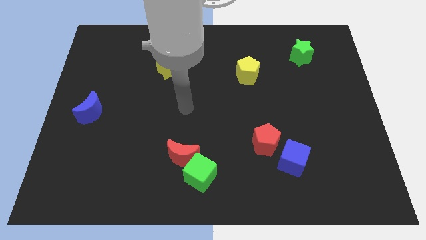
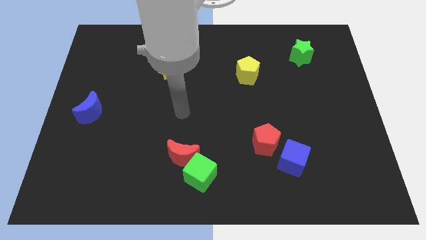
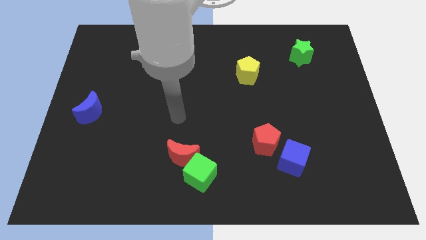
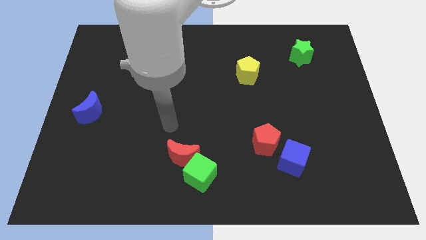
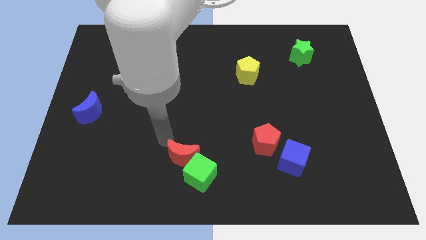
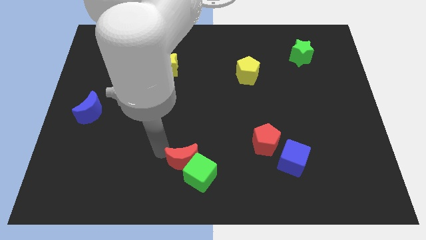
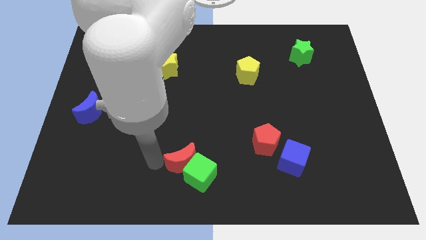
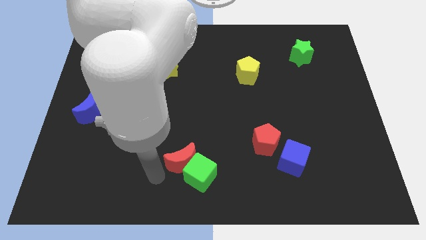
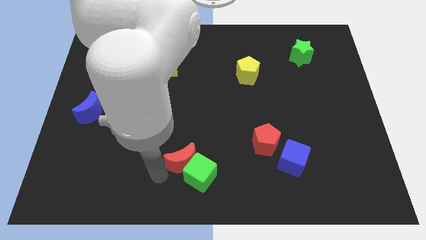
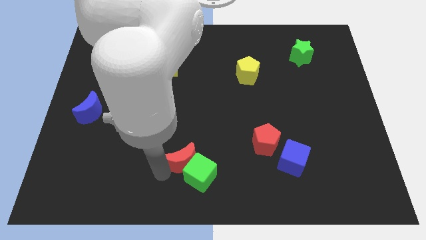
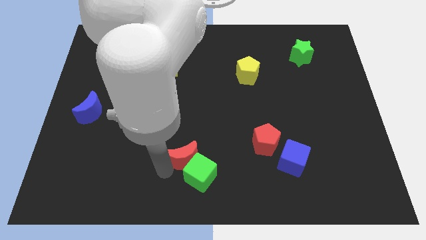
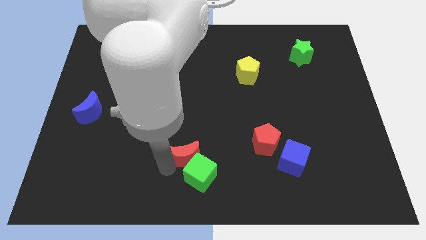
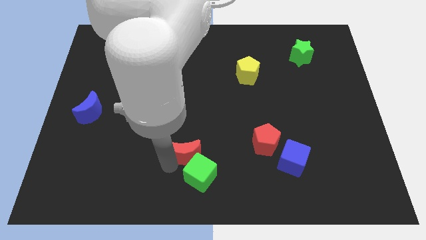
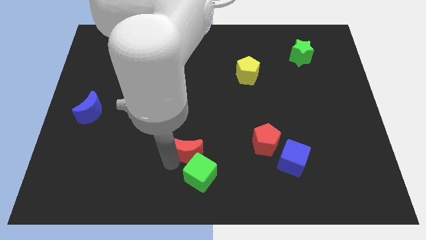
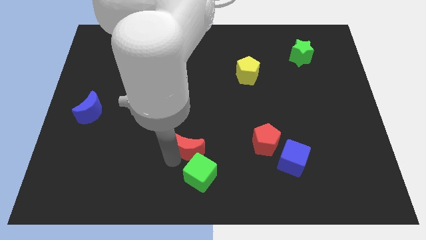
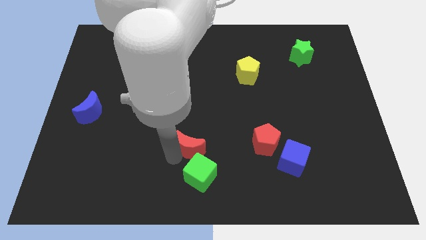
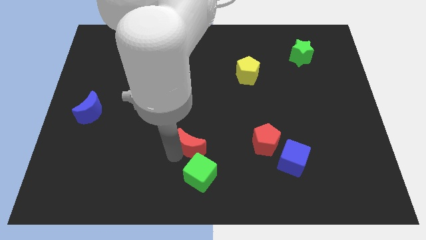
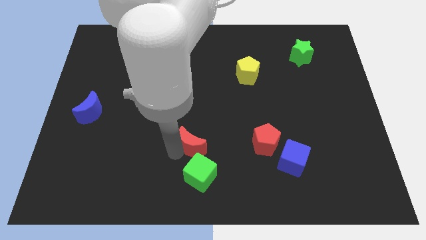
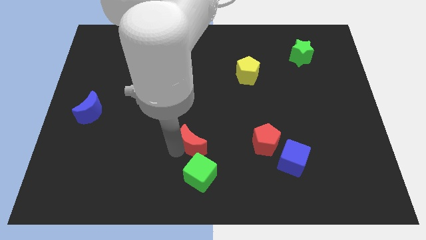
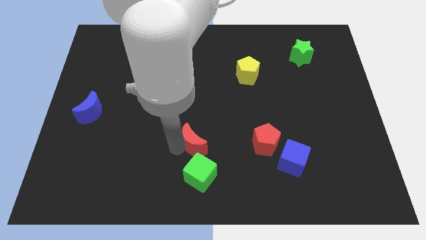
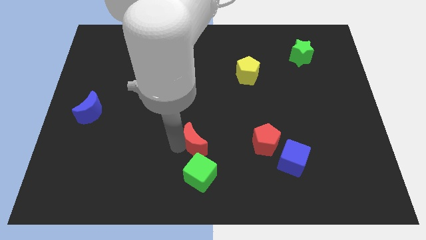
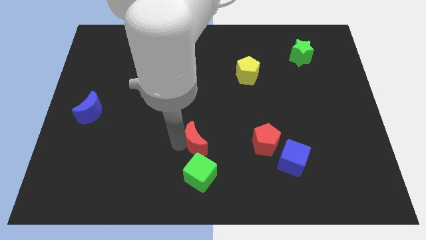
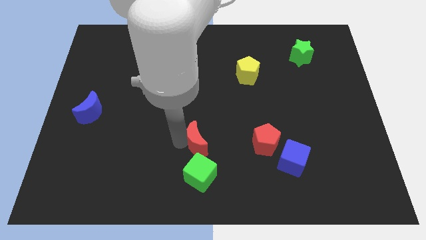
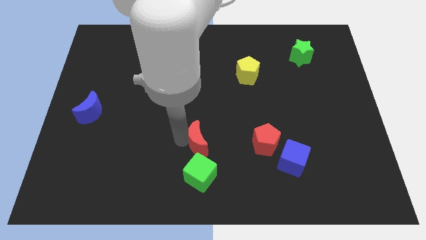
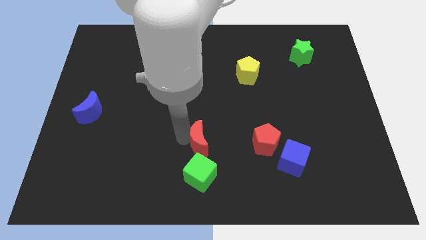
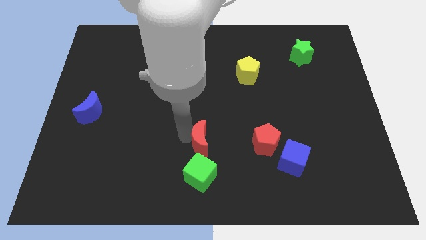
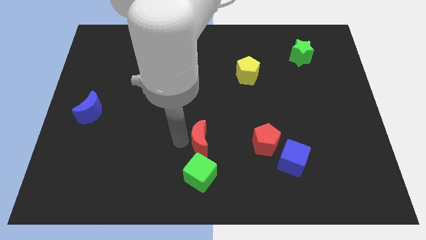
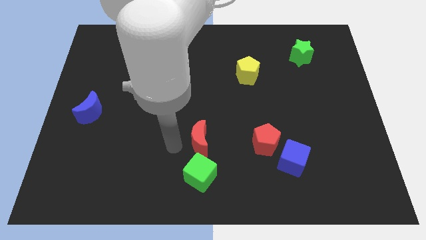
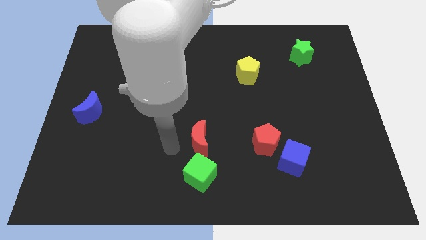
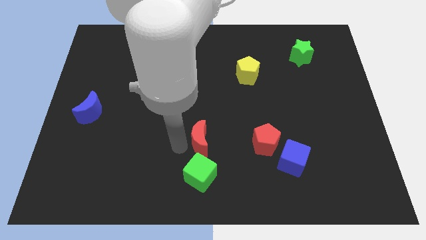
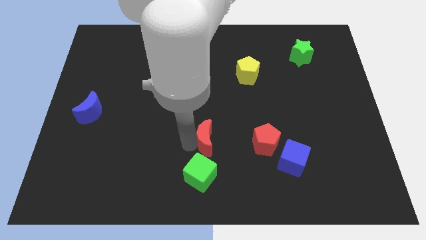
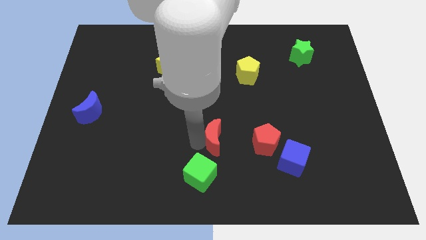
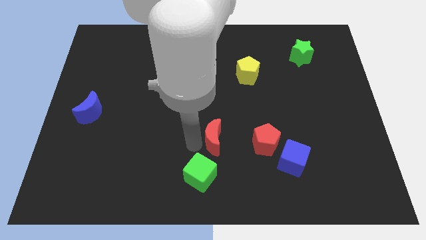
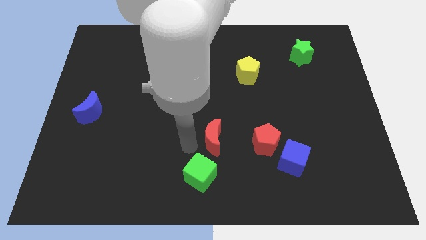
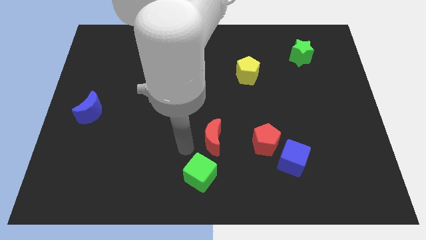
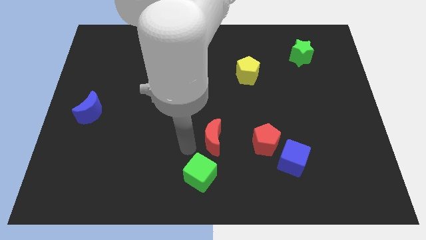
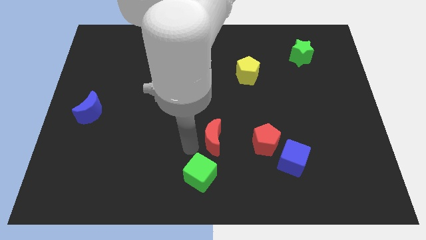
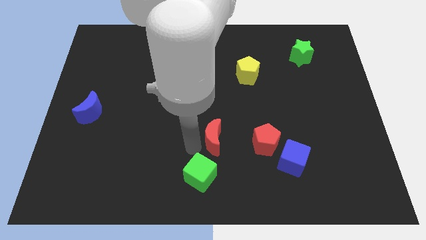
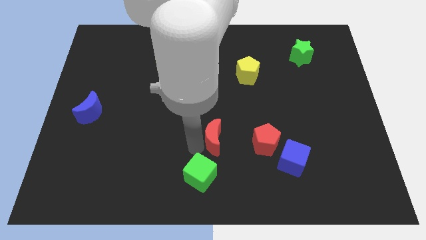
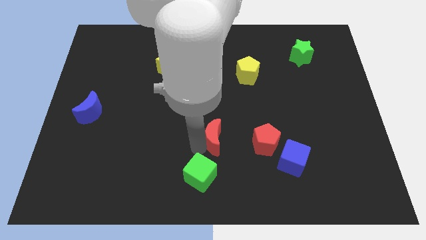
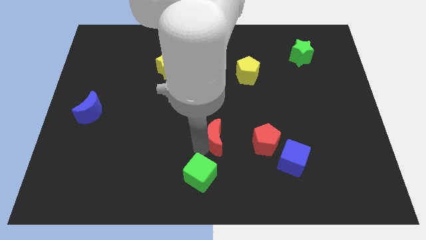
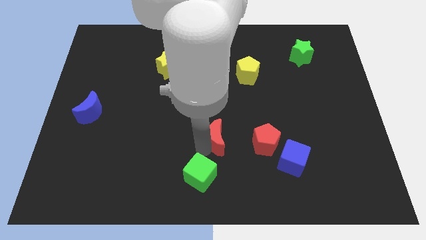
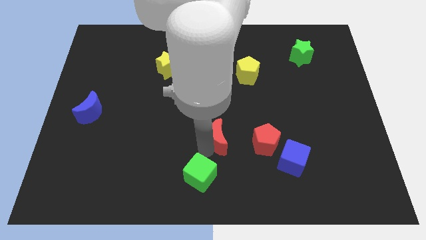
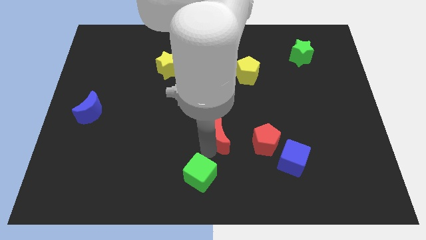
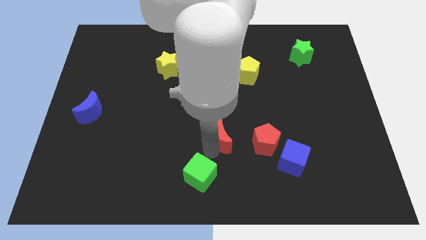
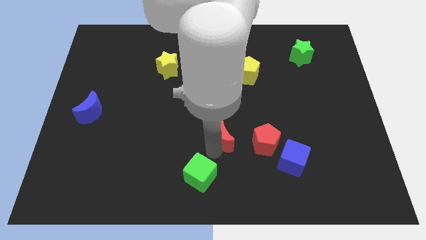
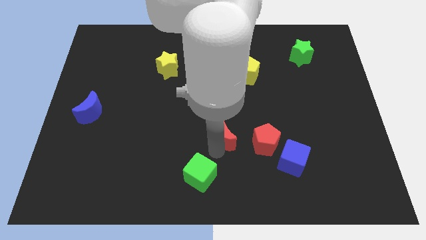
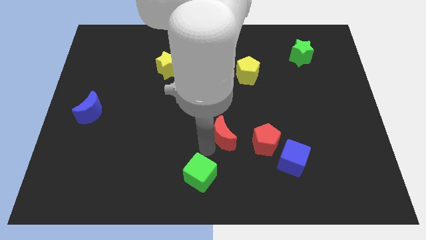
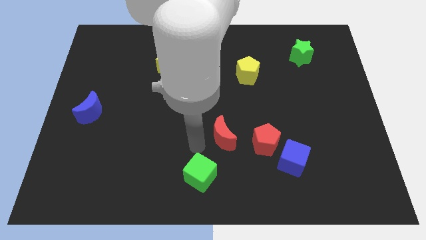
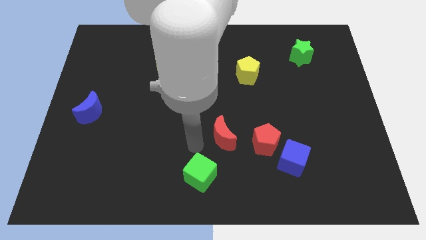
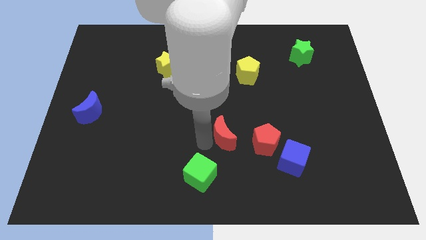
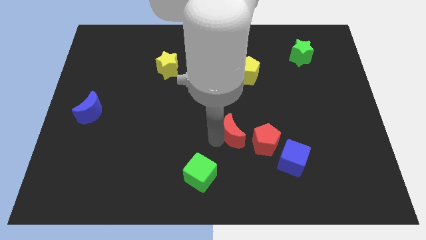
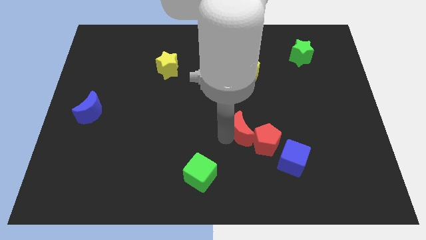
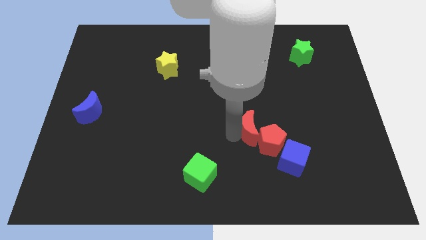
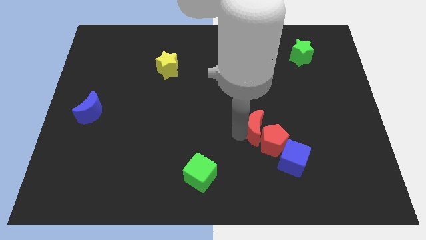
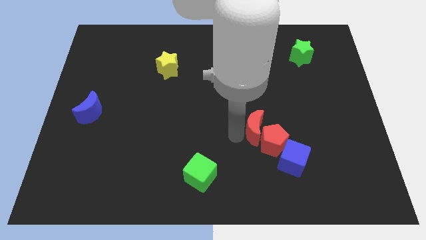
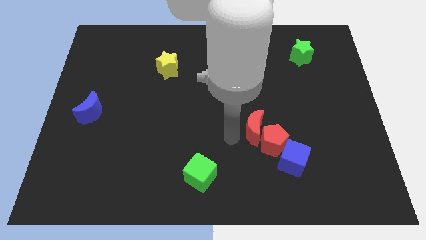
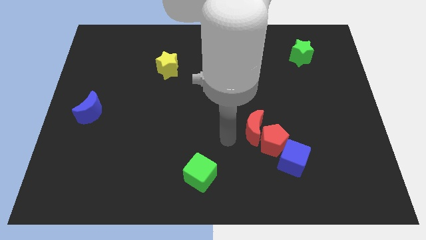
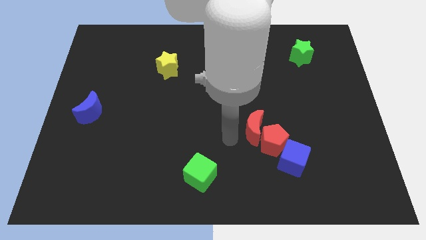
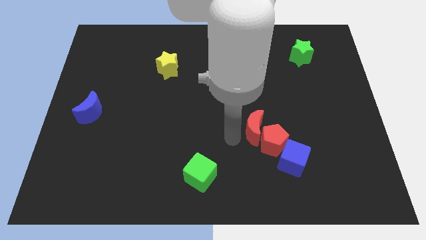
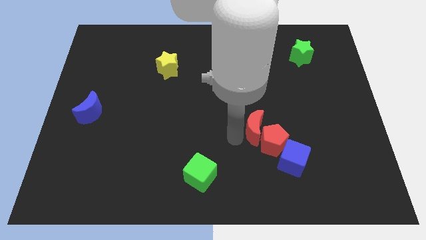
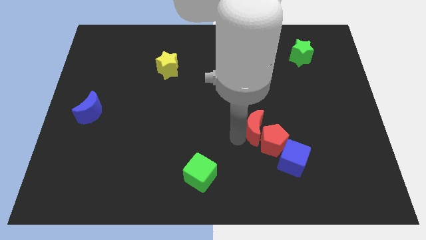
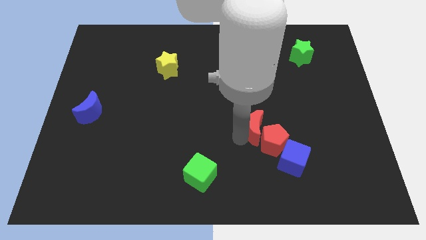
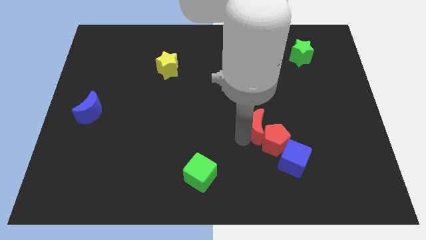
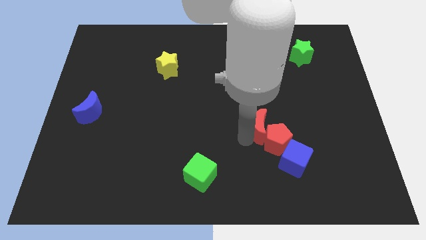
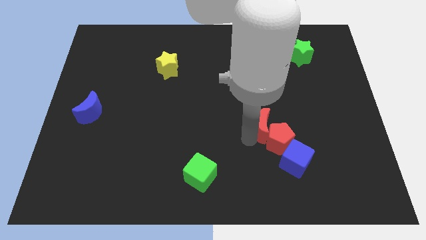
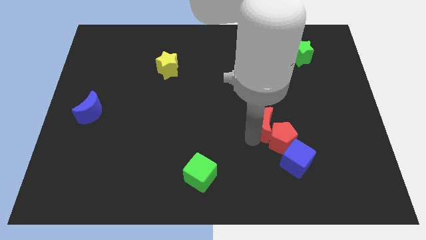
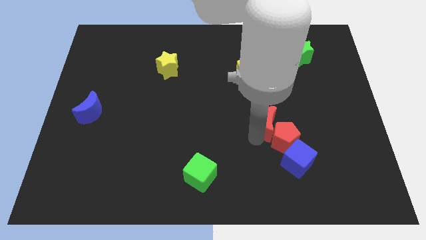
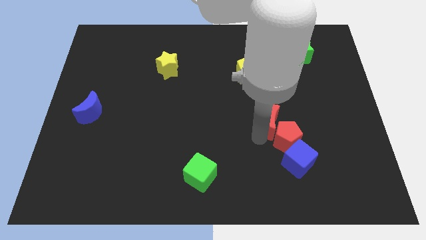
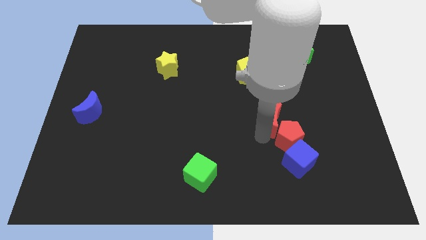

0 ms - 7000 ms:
move the red moon above the blue cube
